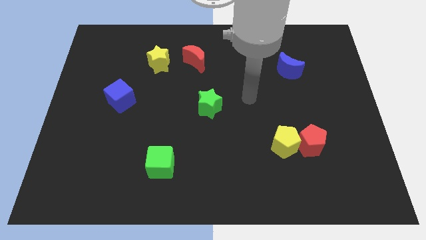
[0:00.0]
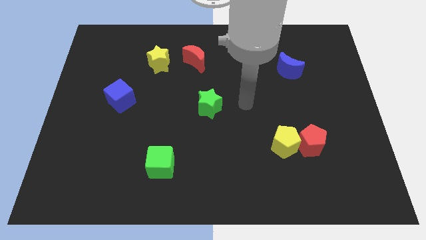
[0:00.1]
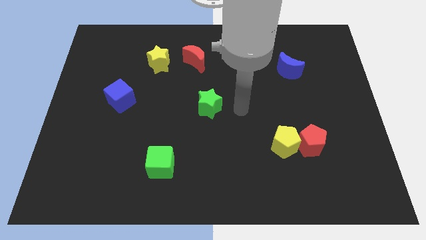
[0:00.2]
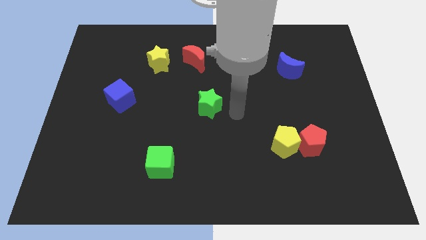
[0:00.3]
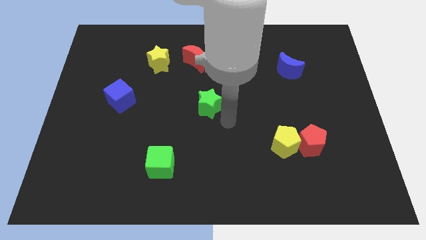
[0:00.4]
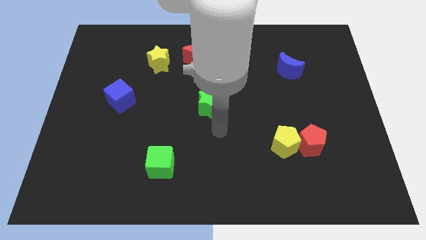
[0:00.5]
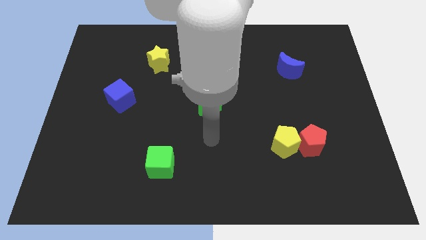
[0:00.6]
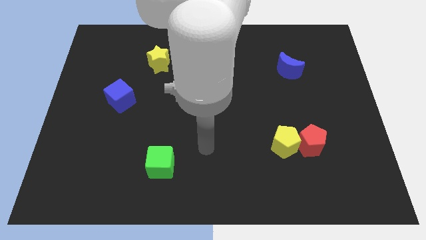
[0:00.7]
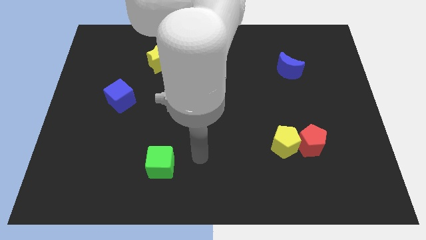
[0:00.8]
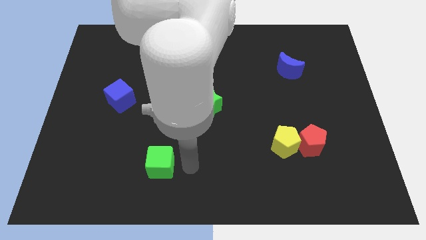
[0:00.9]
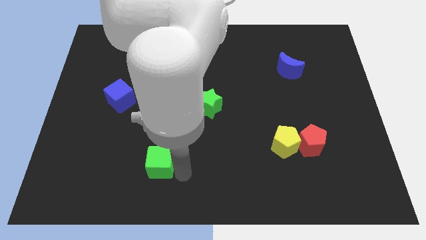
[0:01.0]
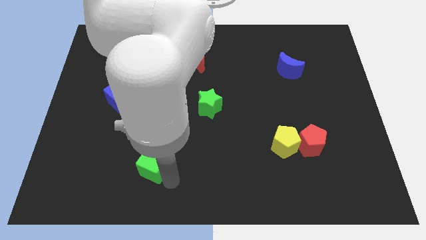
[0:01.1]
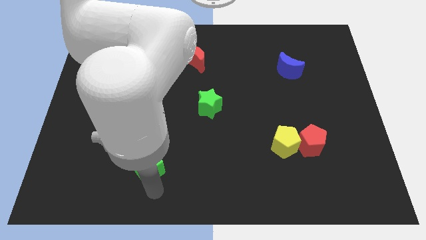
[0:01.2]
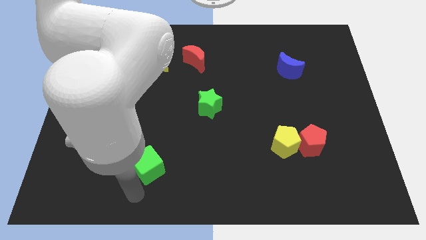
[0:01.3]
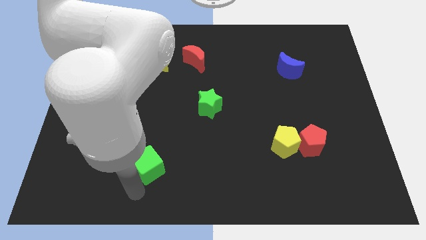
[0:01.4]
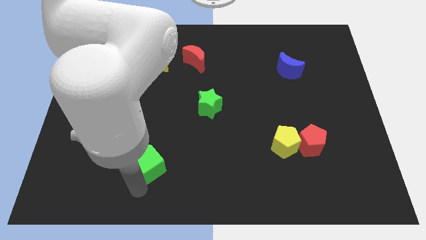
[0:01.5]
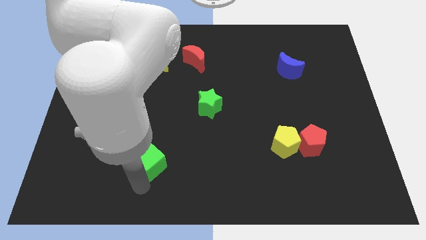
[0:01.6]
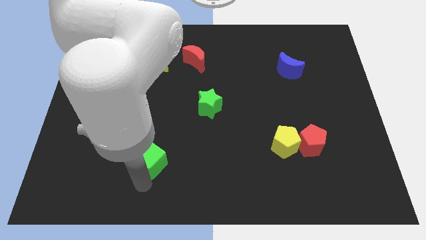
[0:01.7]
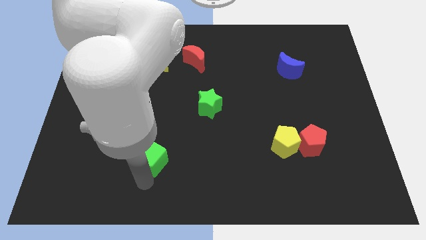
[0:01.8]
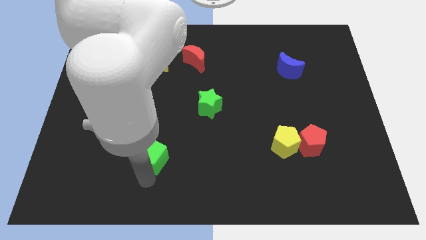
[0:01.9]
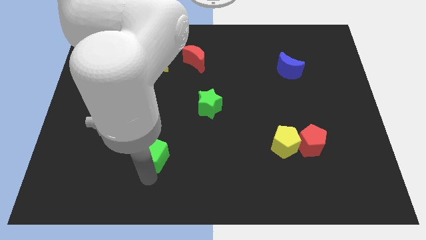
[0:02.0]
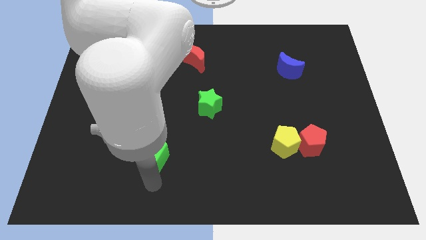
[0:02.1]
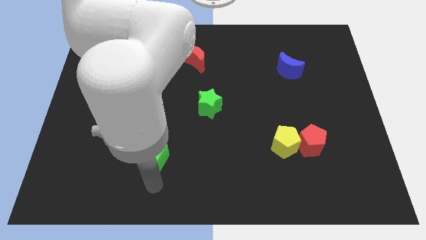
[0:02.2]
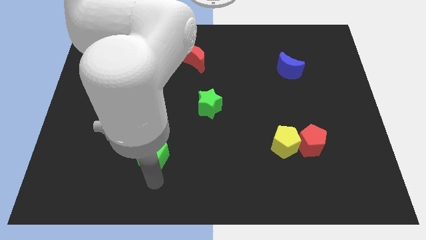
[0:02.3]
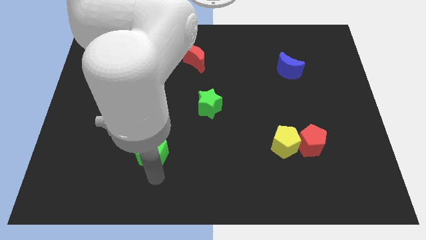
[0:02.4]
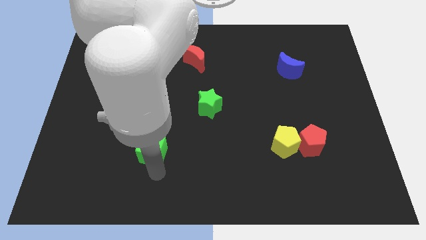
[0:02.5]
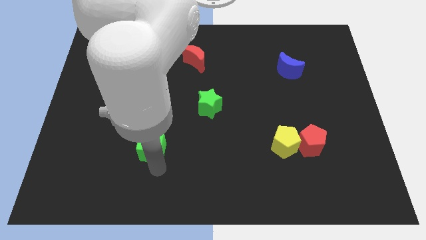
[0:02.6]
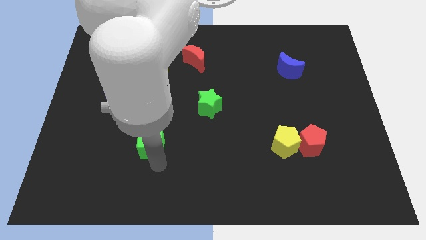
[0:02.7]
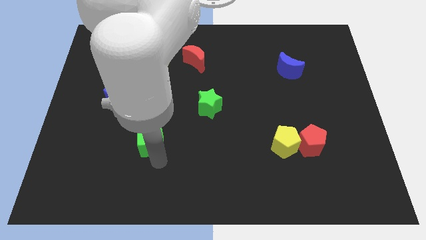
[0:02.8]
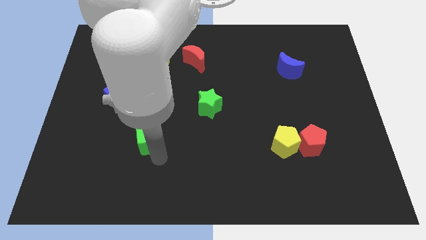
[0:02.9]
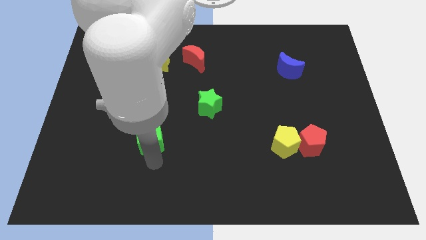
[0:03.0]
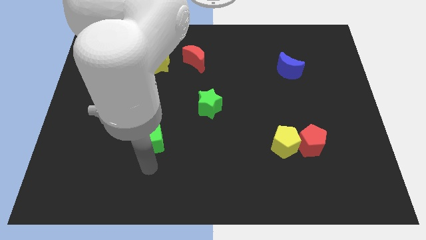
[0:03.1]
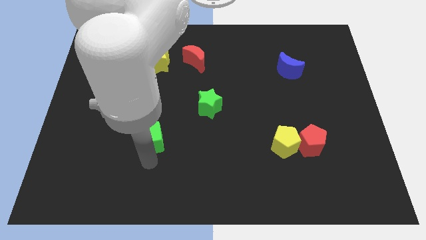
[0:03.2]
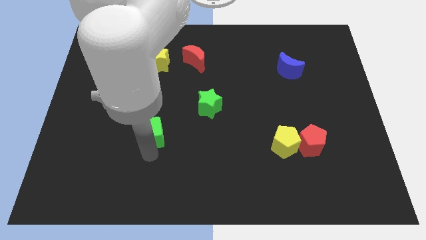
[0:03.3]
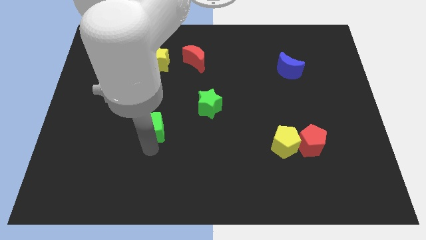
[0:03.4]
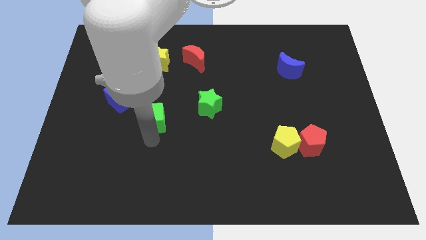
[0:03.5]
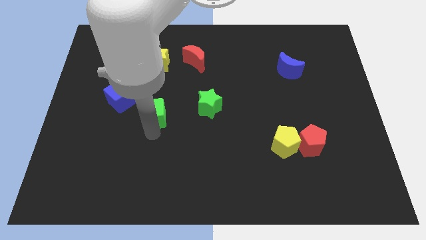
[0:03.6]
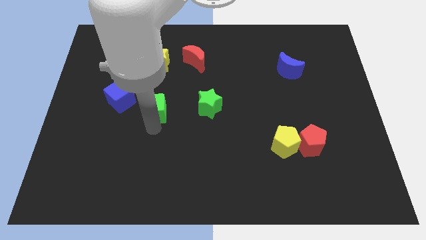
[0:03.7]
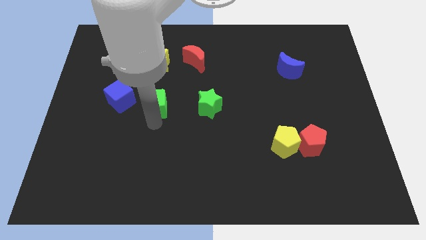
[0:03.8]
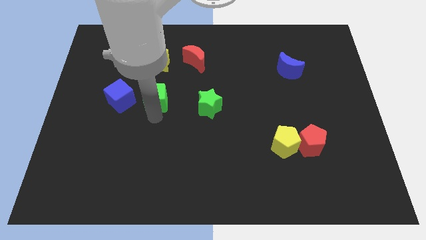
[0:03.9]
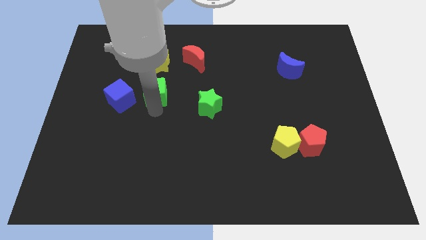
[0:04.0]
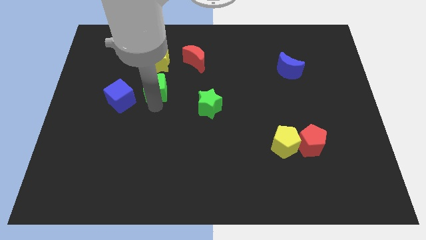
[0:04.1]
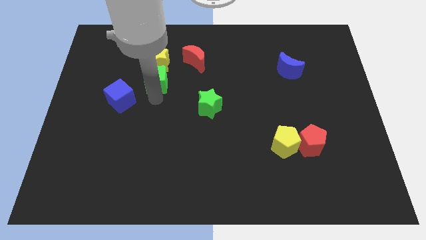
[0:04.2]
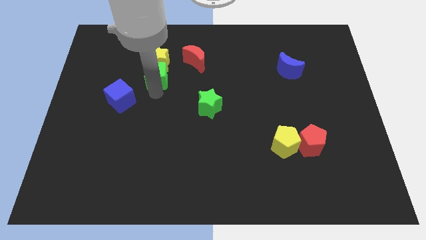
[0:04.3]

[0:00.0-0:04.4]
put the green cube towards the yellow star

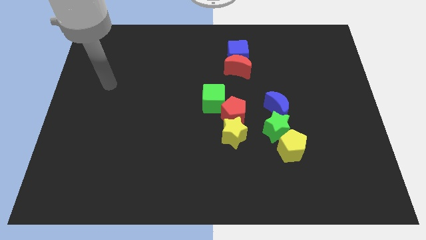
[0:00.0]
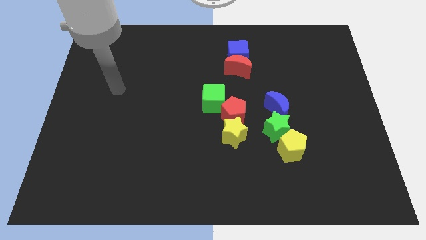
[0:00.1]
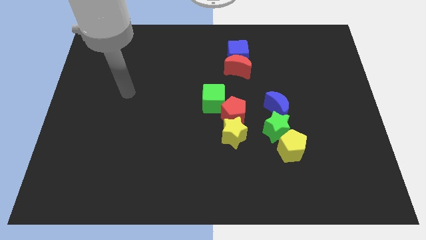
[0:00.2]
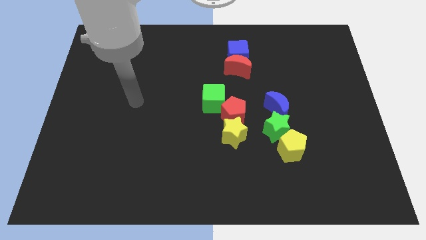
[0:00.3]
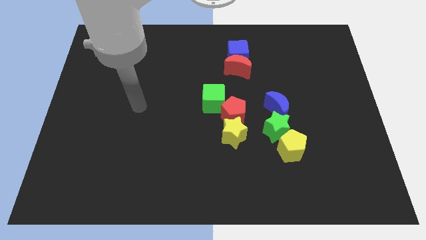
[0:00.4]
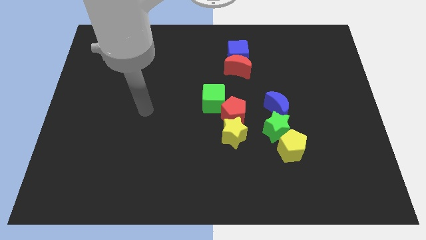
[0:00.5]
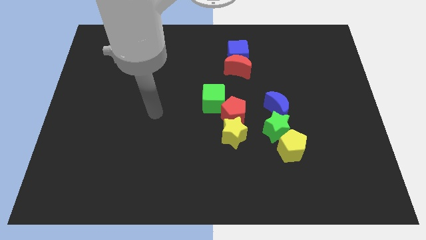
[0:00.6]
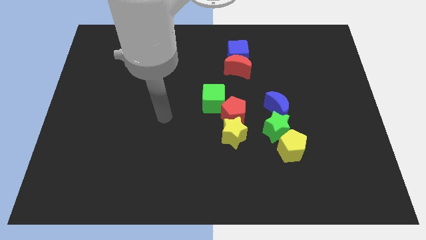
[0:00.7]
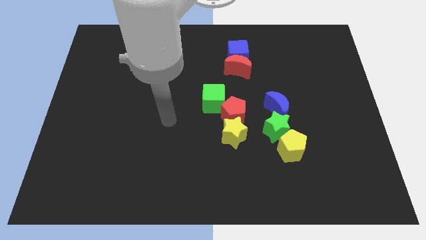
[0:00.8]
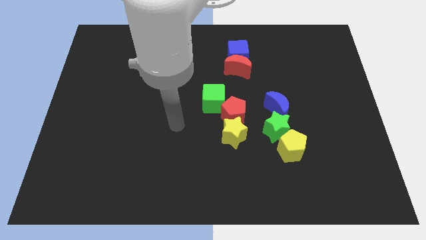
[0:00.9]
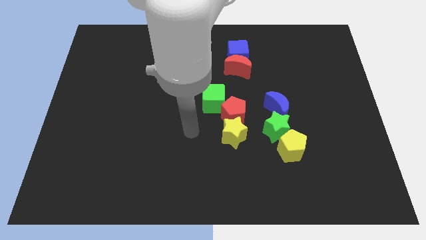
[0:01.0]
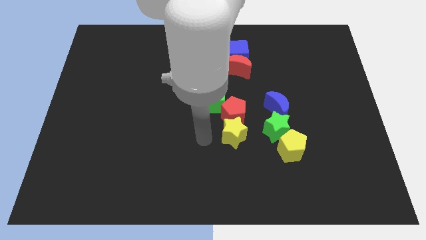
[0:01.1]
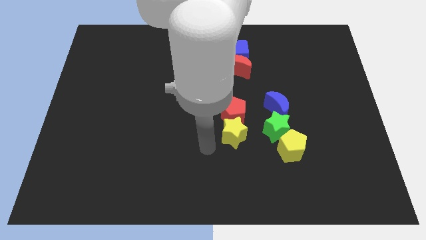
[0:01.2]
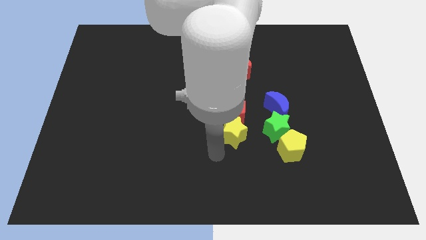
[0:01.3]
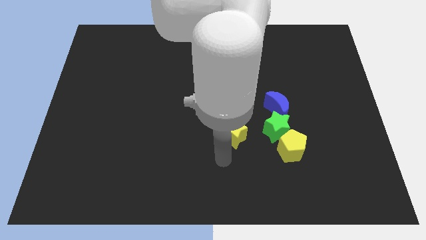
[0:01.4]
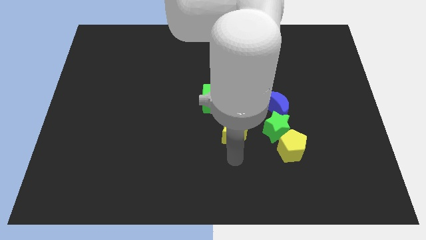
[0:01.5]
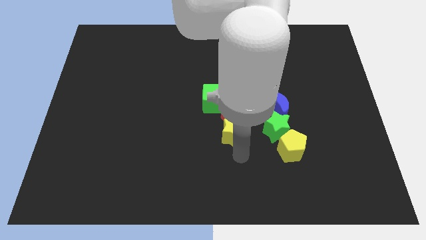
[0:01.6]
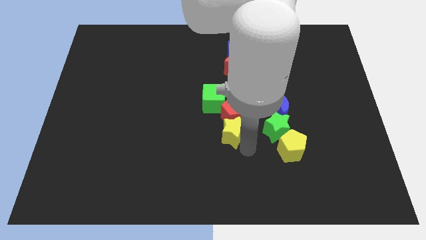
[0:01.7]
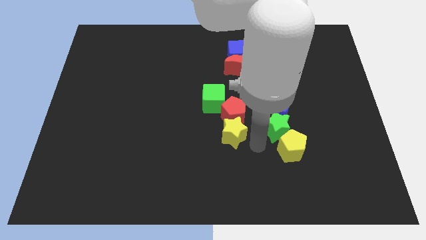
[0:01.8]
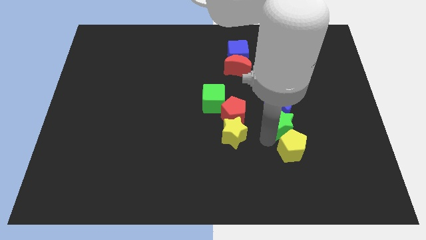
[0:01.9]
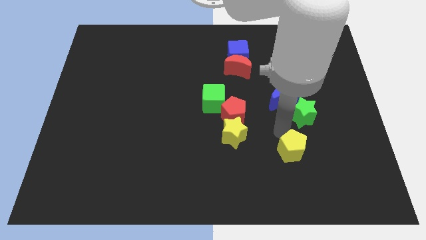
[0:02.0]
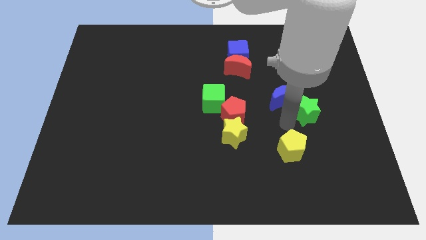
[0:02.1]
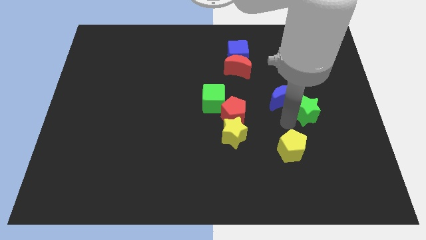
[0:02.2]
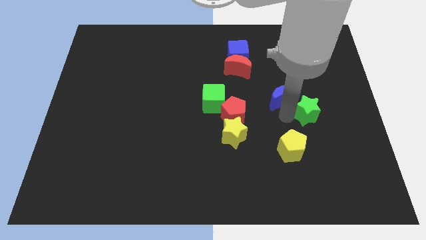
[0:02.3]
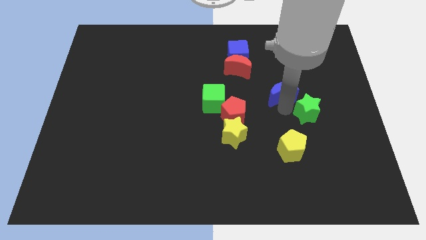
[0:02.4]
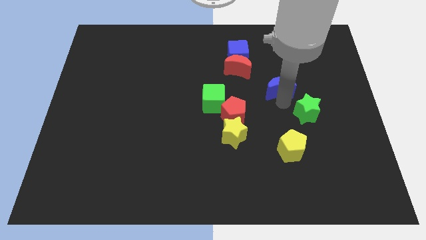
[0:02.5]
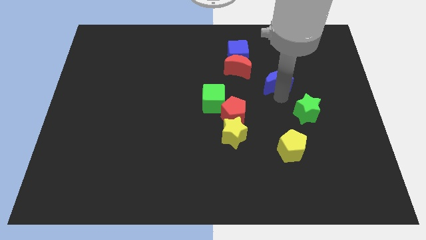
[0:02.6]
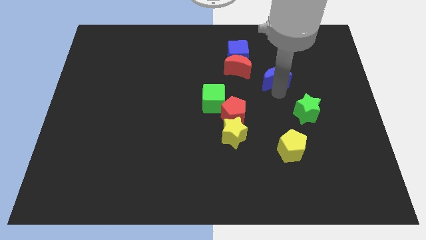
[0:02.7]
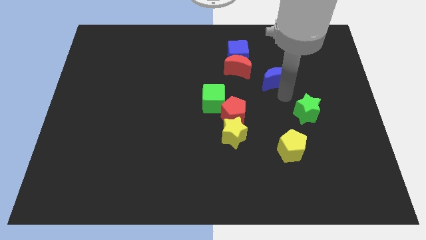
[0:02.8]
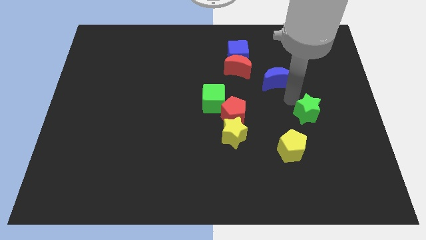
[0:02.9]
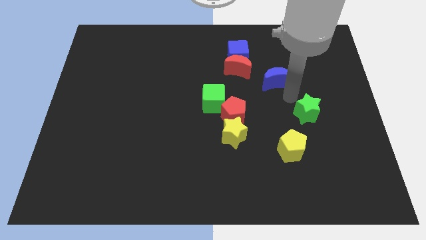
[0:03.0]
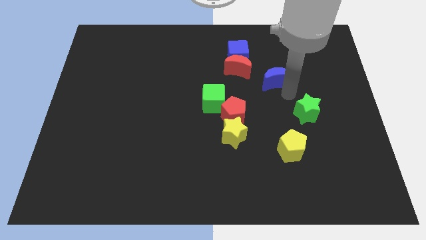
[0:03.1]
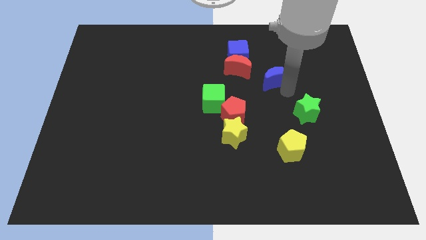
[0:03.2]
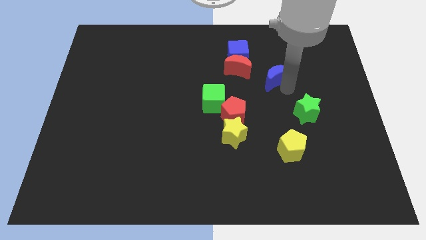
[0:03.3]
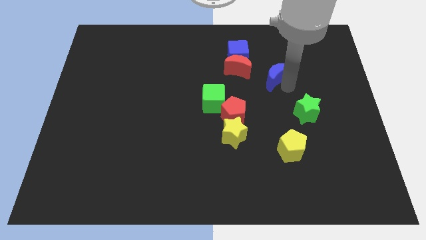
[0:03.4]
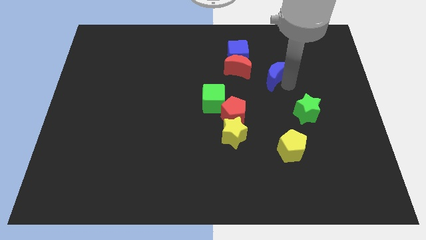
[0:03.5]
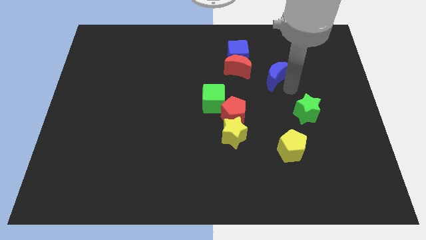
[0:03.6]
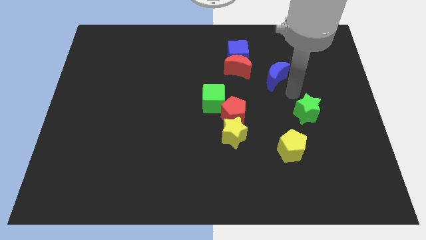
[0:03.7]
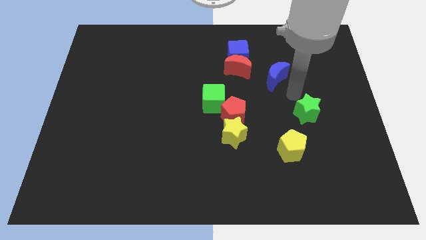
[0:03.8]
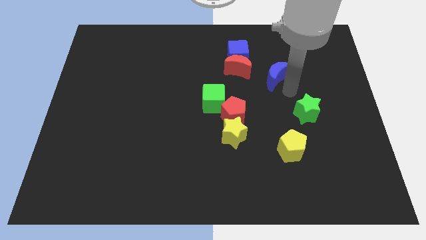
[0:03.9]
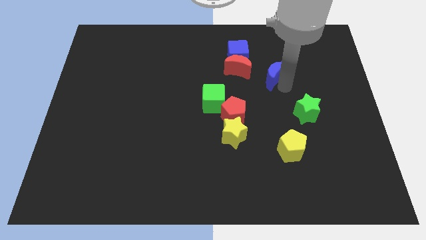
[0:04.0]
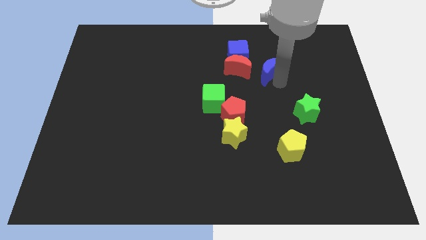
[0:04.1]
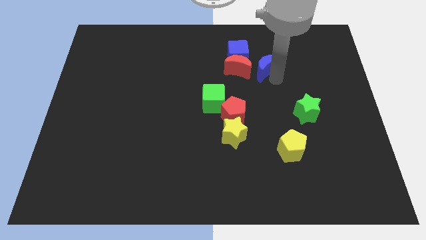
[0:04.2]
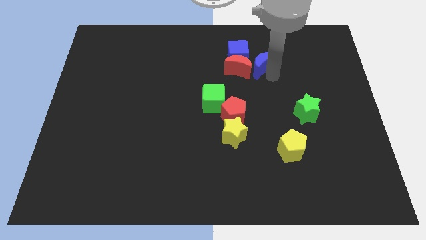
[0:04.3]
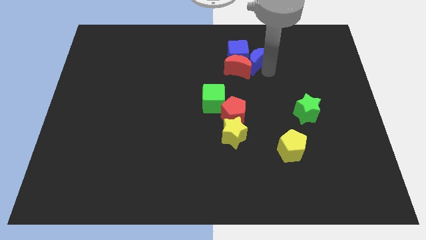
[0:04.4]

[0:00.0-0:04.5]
put the blue moon next to the blue cube
